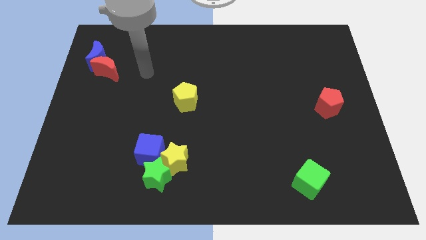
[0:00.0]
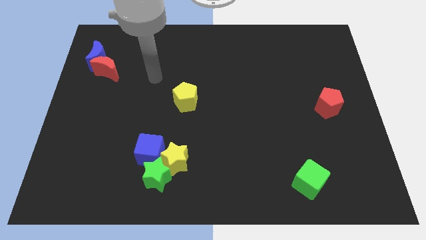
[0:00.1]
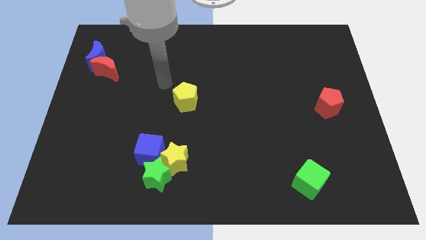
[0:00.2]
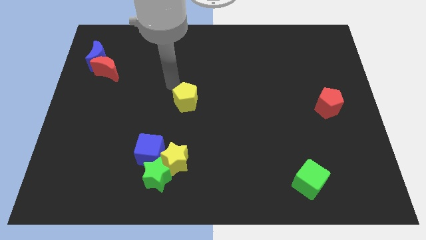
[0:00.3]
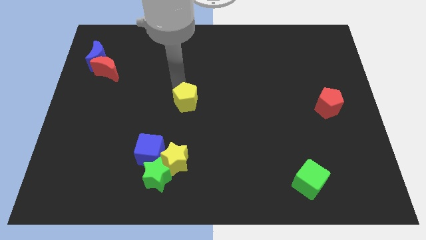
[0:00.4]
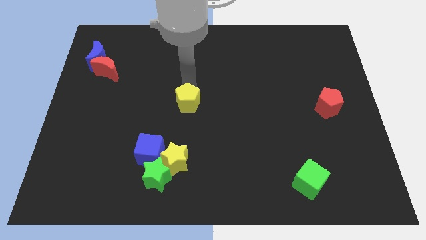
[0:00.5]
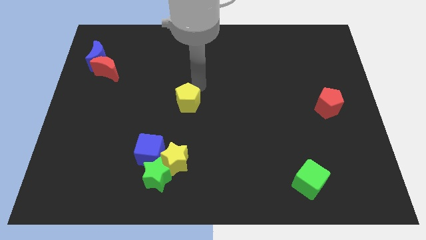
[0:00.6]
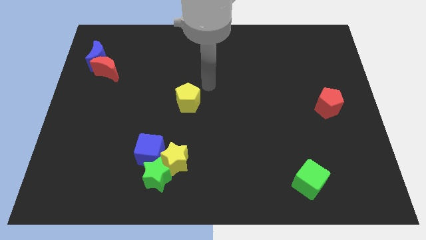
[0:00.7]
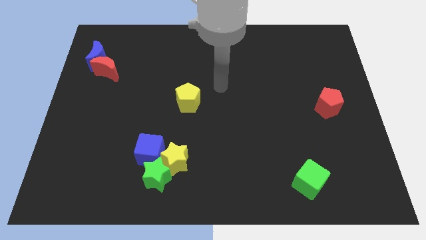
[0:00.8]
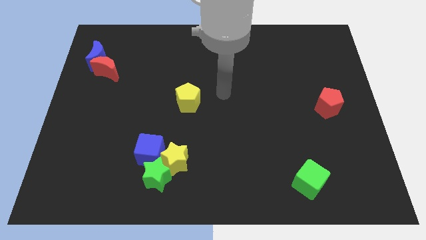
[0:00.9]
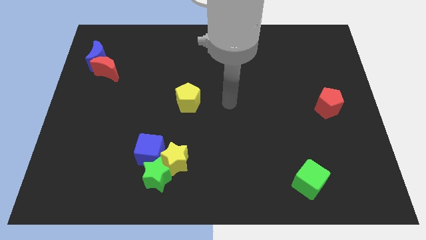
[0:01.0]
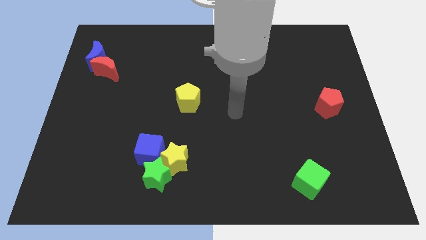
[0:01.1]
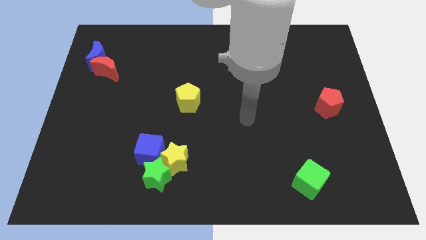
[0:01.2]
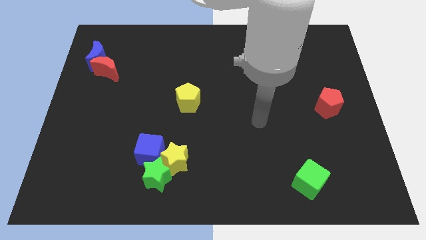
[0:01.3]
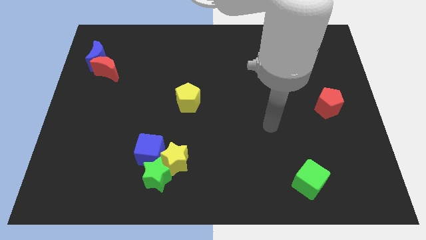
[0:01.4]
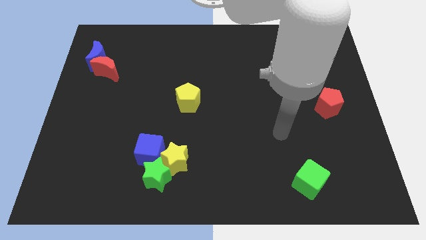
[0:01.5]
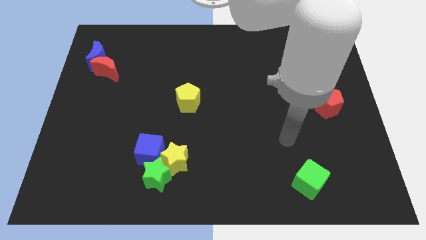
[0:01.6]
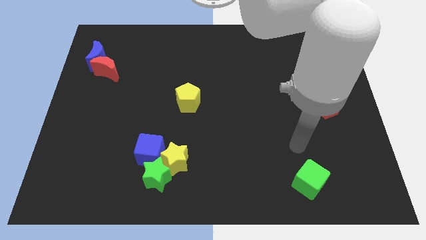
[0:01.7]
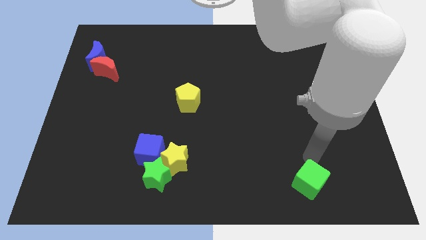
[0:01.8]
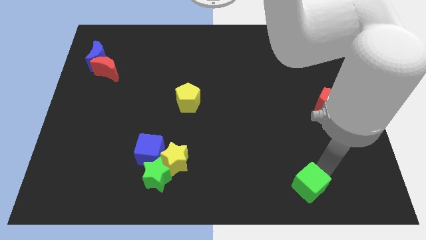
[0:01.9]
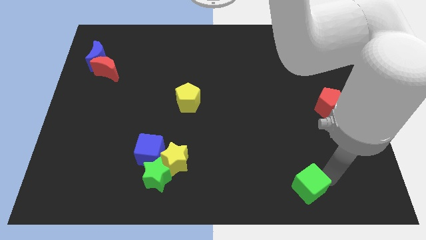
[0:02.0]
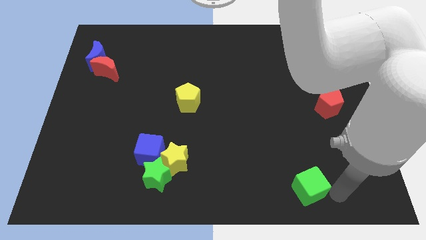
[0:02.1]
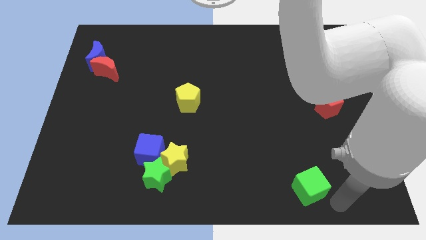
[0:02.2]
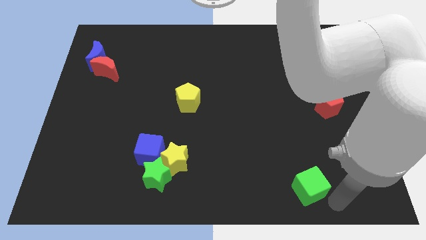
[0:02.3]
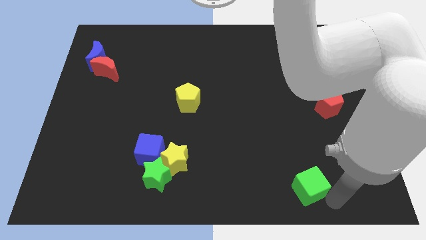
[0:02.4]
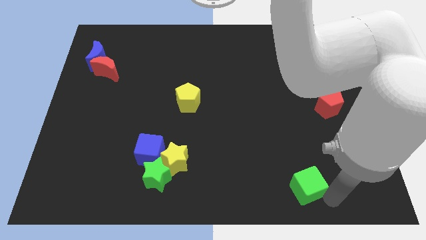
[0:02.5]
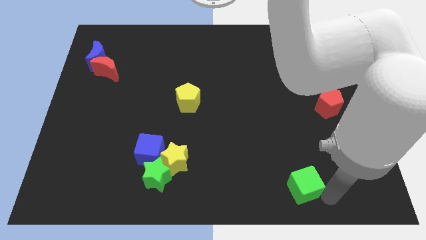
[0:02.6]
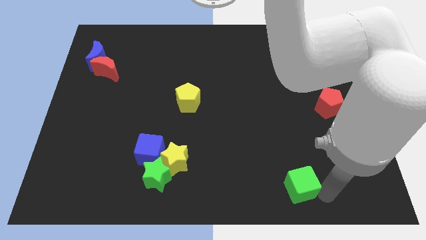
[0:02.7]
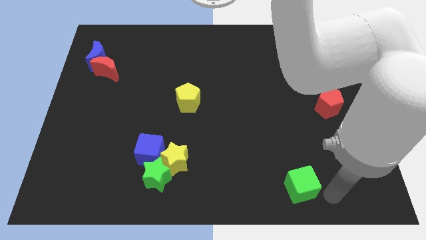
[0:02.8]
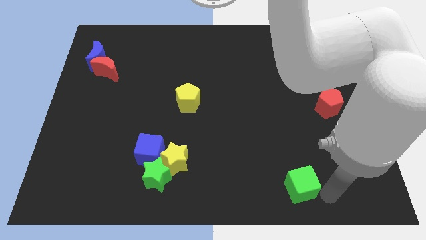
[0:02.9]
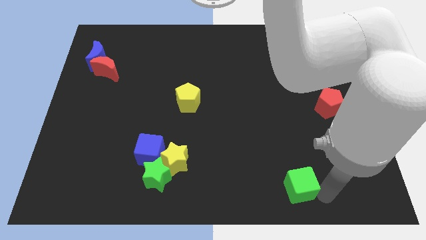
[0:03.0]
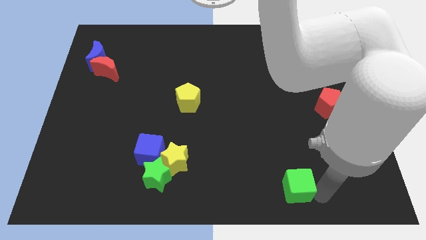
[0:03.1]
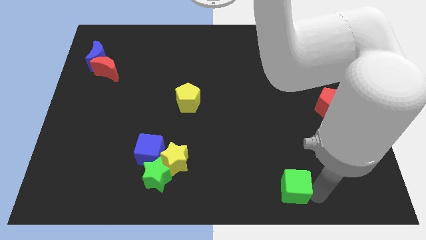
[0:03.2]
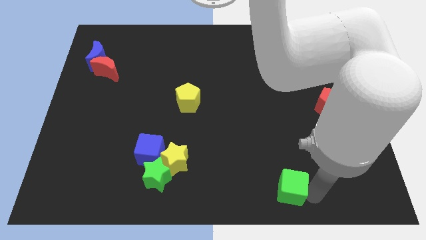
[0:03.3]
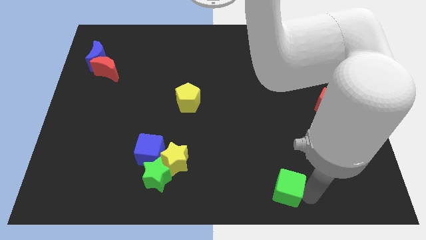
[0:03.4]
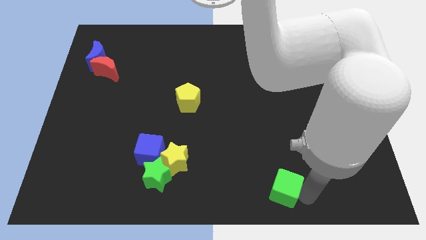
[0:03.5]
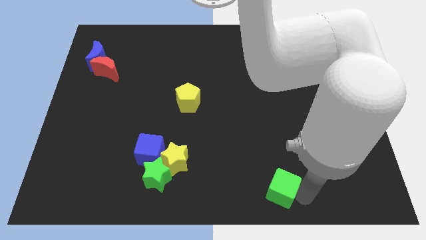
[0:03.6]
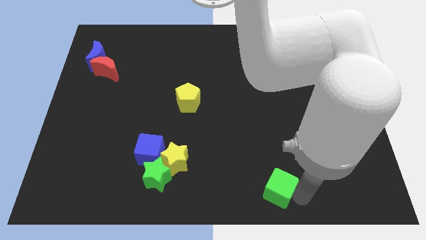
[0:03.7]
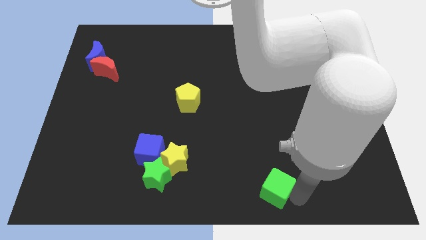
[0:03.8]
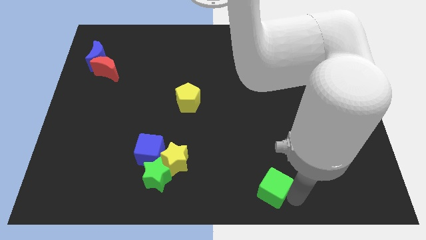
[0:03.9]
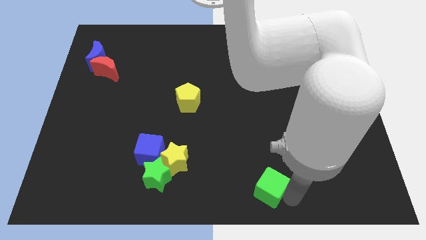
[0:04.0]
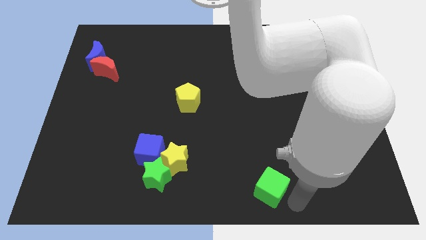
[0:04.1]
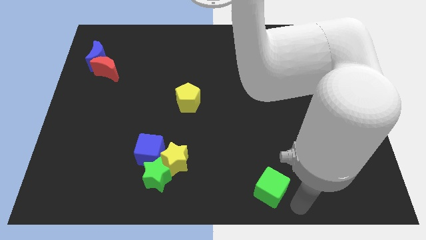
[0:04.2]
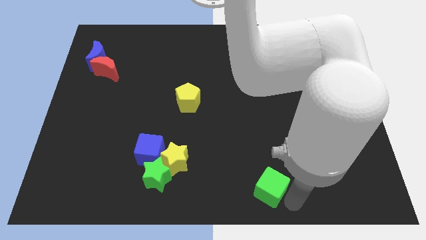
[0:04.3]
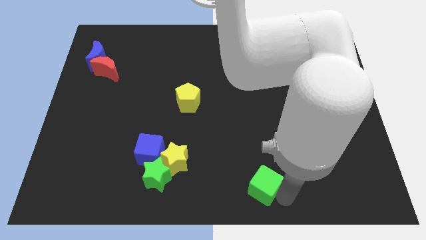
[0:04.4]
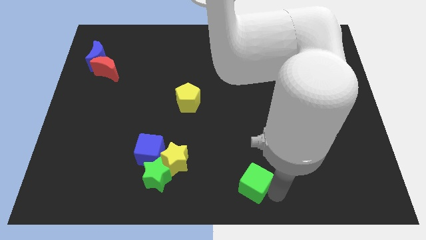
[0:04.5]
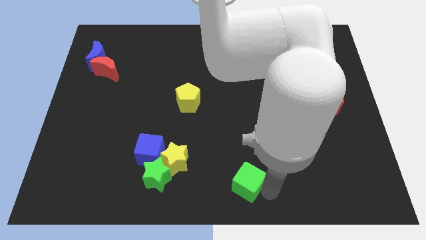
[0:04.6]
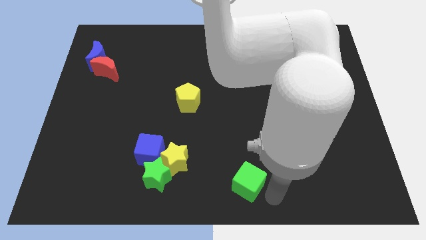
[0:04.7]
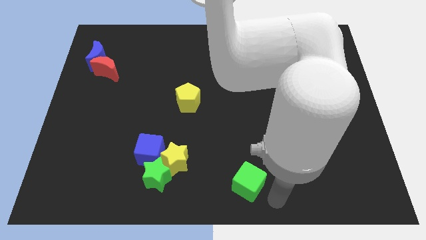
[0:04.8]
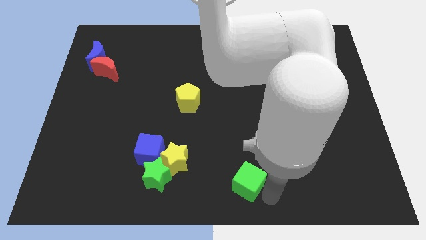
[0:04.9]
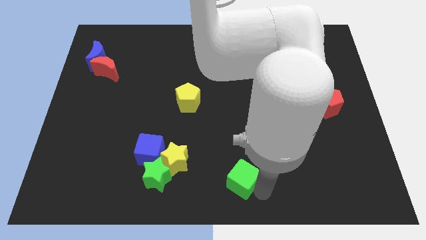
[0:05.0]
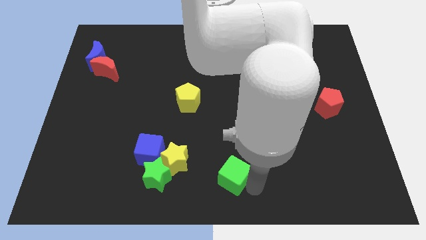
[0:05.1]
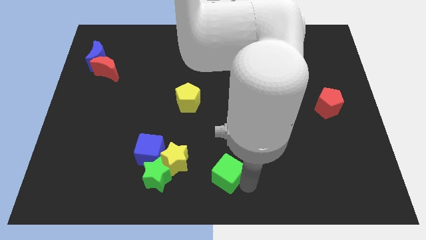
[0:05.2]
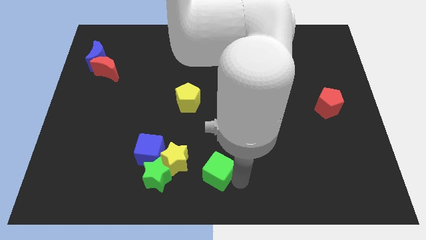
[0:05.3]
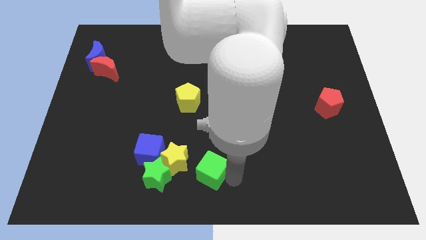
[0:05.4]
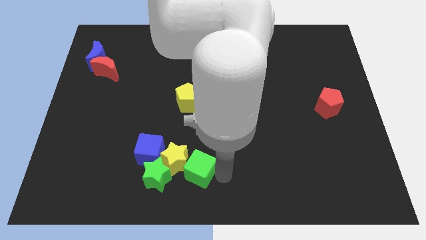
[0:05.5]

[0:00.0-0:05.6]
move the green cube towards the yellow star

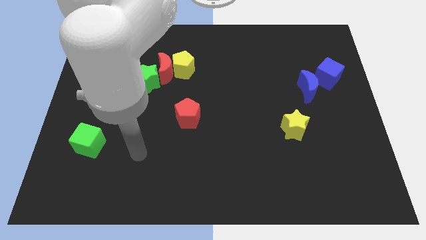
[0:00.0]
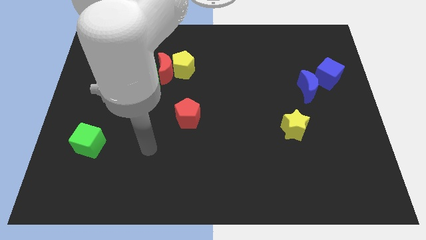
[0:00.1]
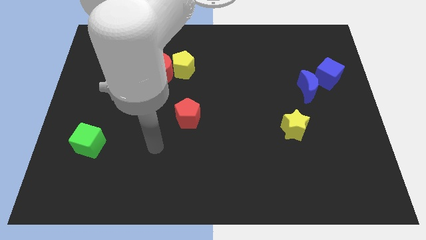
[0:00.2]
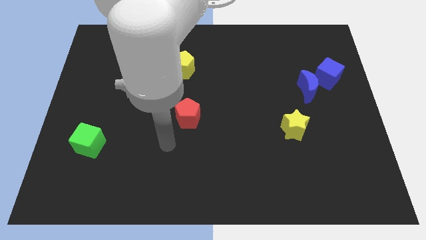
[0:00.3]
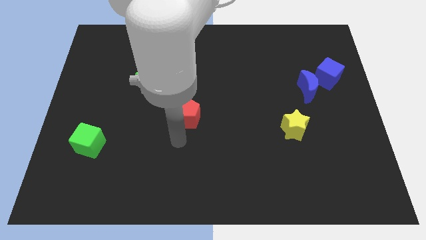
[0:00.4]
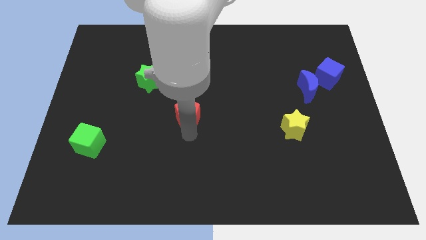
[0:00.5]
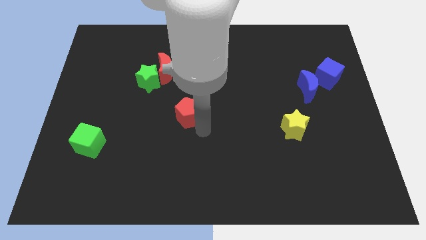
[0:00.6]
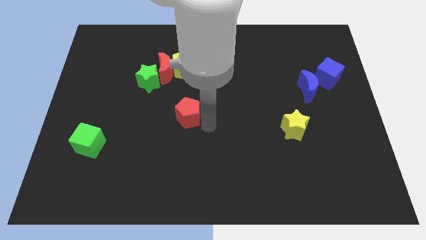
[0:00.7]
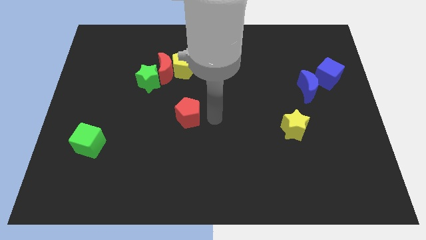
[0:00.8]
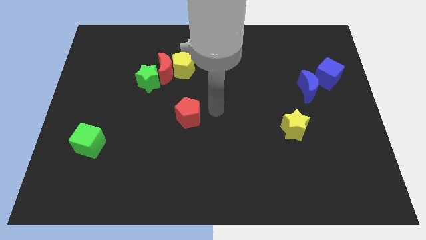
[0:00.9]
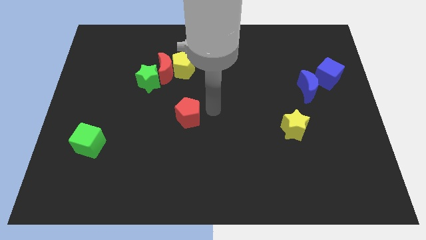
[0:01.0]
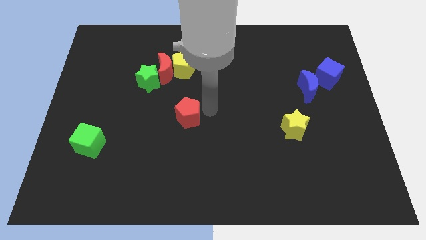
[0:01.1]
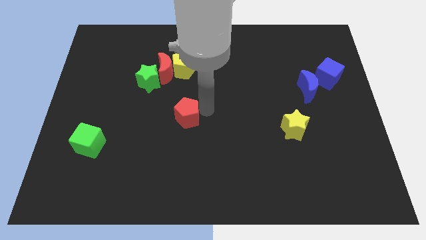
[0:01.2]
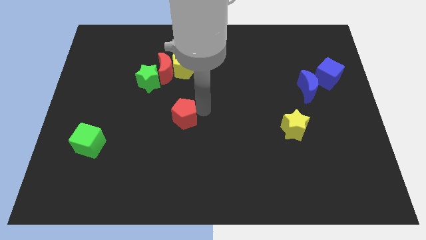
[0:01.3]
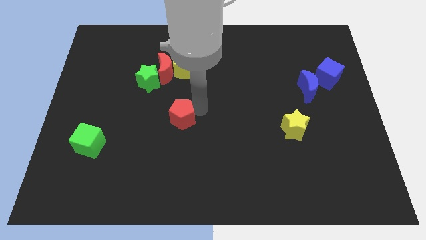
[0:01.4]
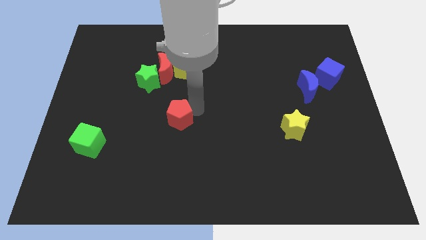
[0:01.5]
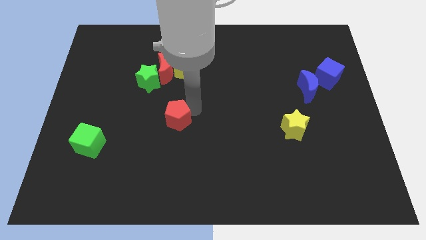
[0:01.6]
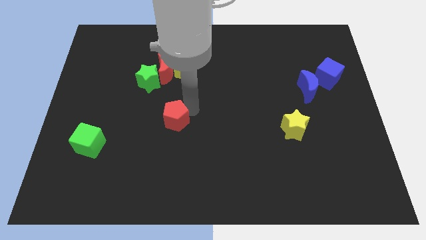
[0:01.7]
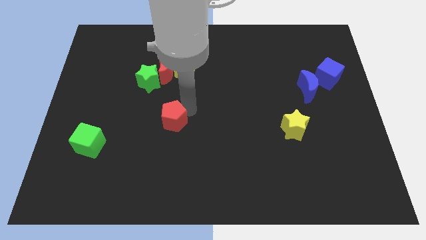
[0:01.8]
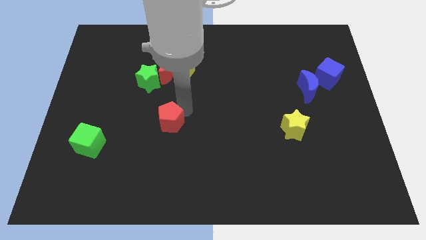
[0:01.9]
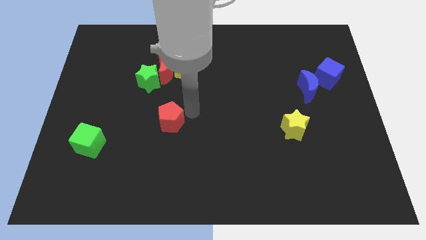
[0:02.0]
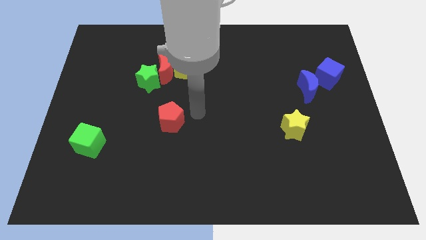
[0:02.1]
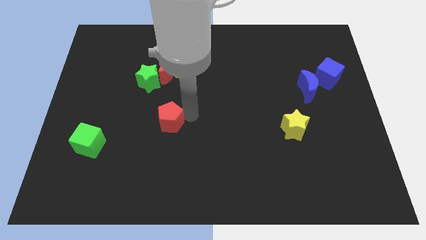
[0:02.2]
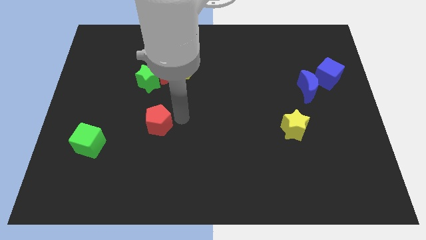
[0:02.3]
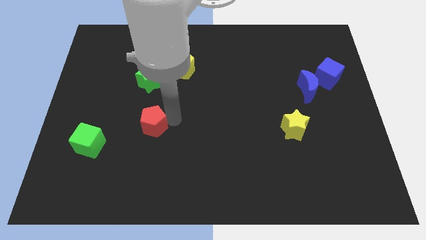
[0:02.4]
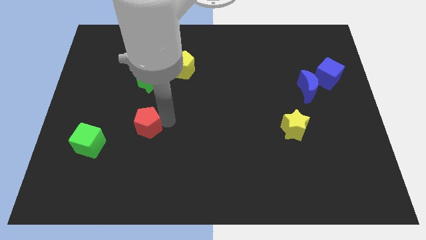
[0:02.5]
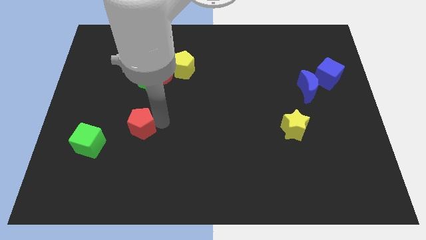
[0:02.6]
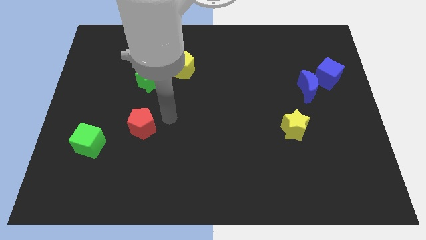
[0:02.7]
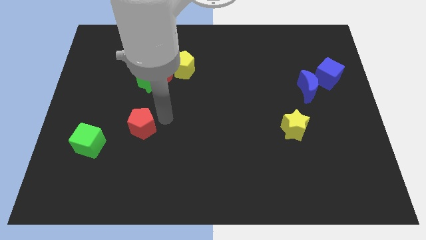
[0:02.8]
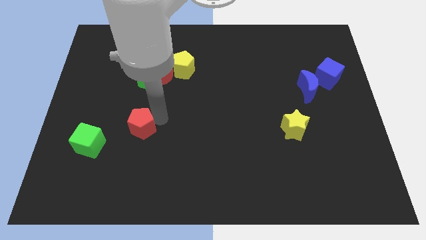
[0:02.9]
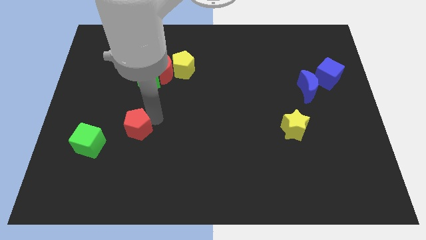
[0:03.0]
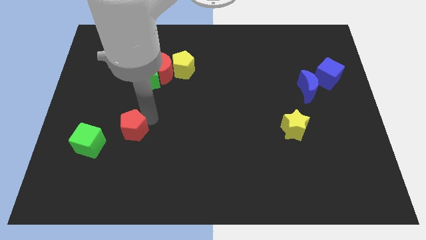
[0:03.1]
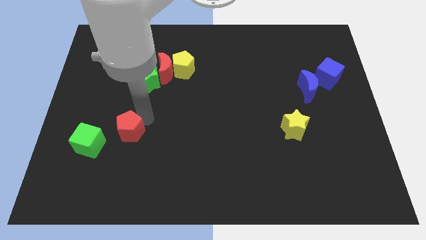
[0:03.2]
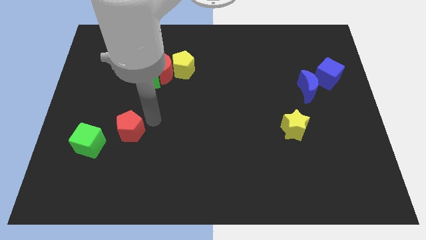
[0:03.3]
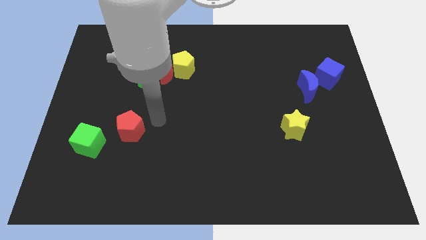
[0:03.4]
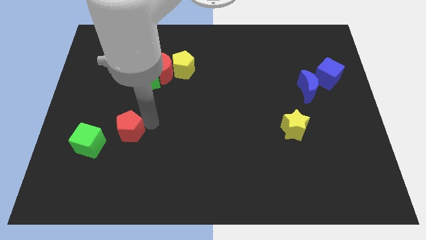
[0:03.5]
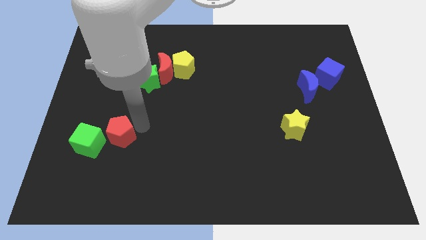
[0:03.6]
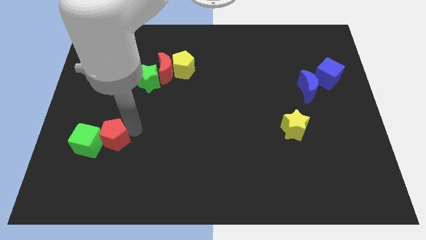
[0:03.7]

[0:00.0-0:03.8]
put the red pentagon close to the green cube
